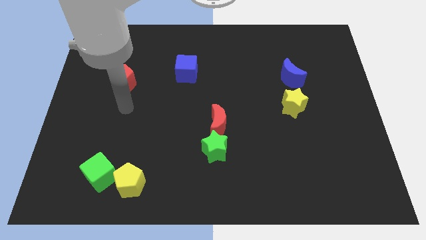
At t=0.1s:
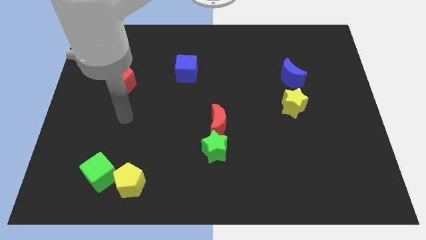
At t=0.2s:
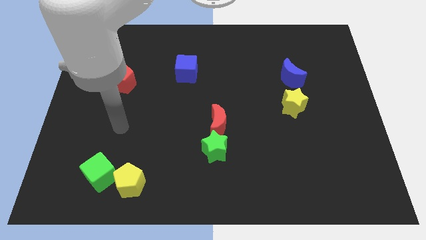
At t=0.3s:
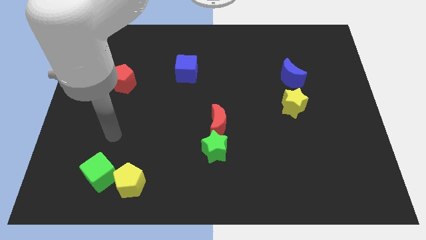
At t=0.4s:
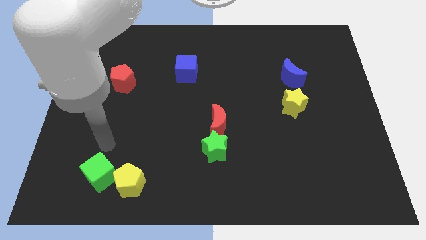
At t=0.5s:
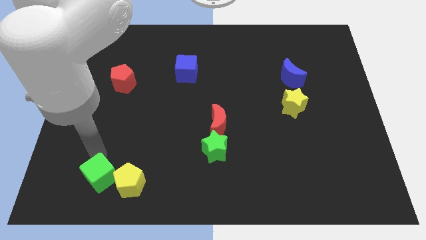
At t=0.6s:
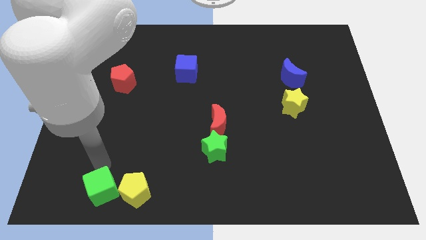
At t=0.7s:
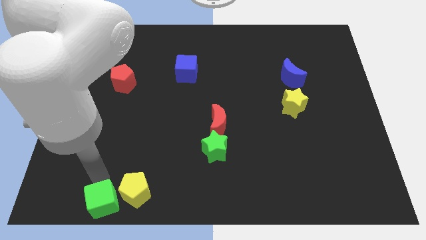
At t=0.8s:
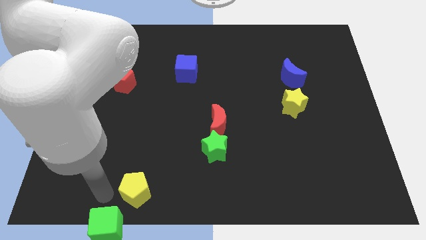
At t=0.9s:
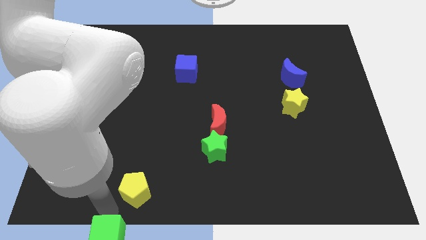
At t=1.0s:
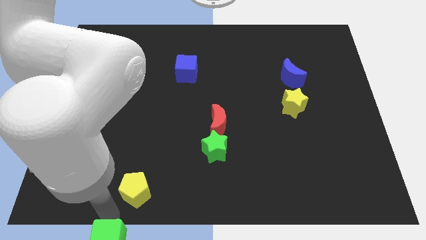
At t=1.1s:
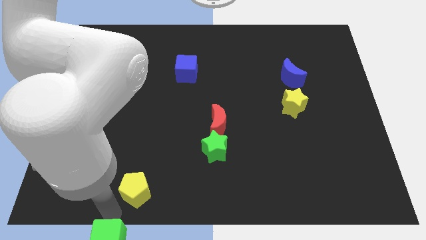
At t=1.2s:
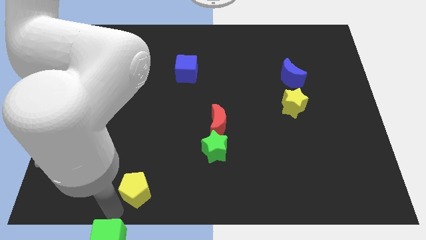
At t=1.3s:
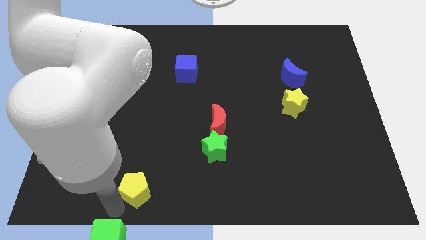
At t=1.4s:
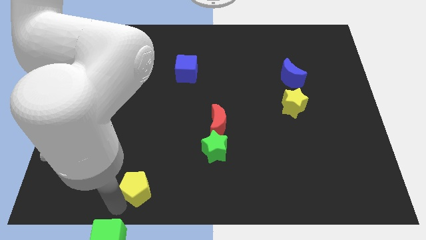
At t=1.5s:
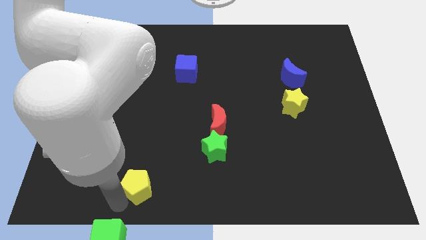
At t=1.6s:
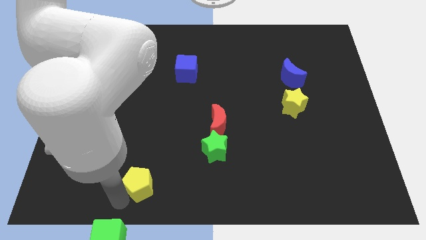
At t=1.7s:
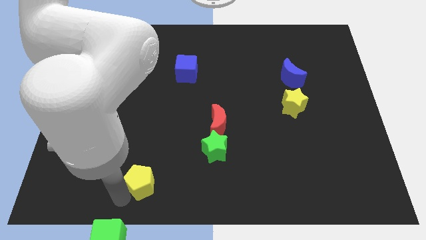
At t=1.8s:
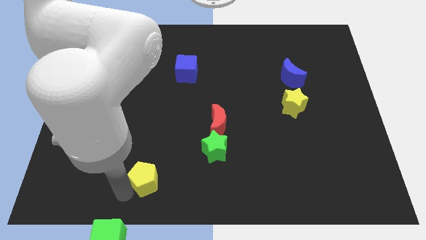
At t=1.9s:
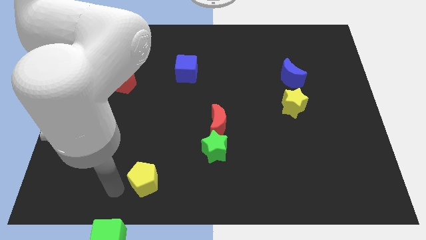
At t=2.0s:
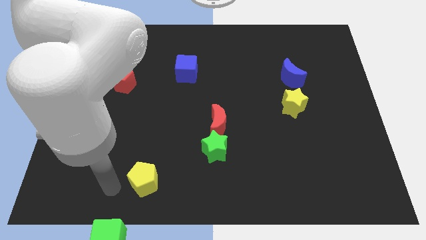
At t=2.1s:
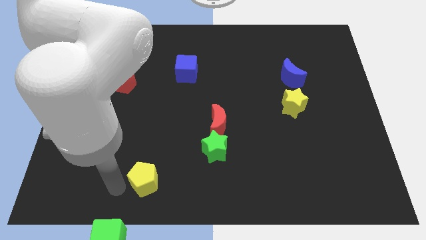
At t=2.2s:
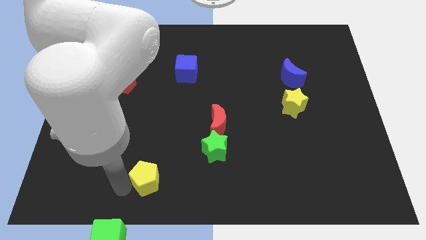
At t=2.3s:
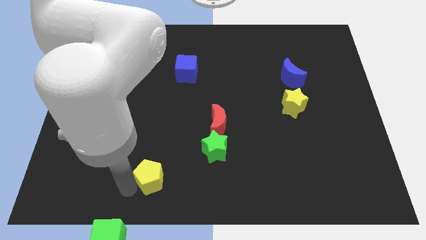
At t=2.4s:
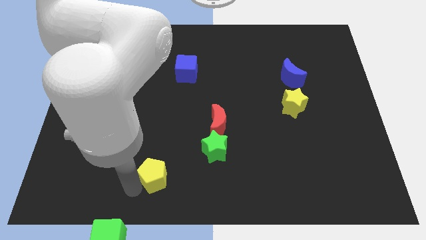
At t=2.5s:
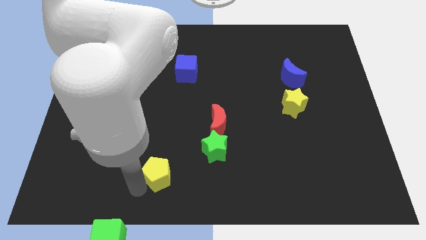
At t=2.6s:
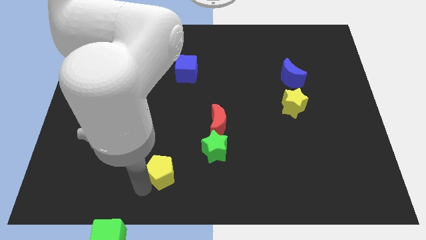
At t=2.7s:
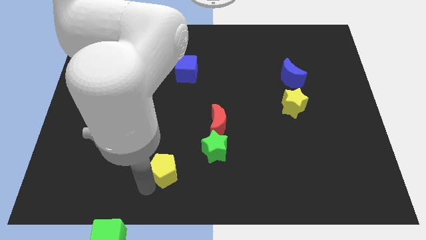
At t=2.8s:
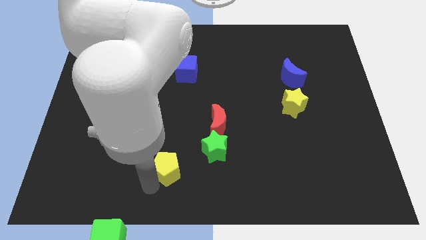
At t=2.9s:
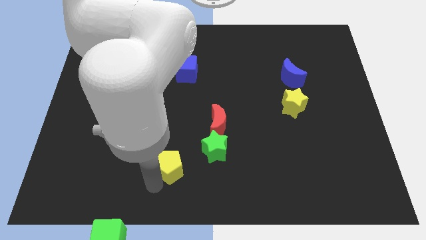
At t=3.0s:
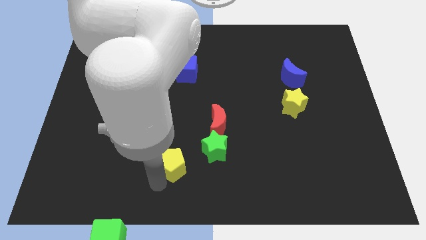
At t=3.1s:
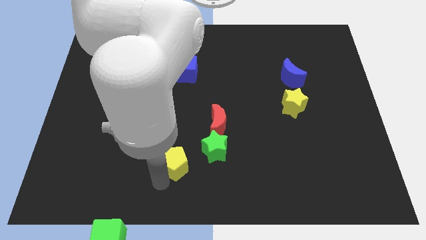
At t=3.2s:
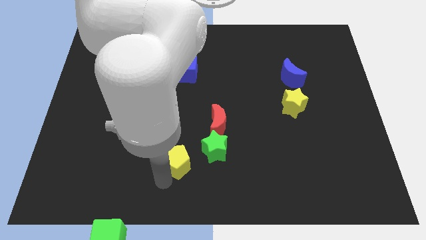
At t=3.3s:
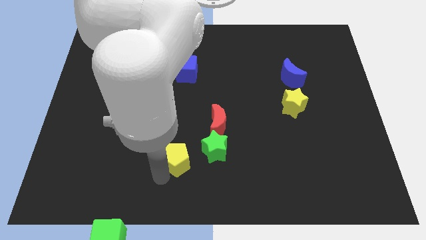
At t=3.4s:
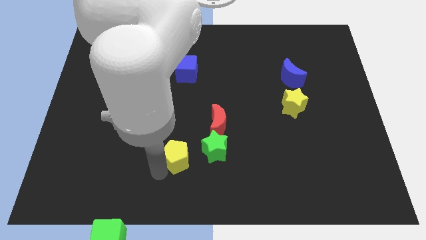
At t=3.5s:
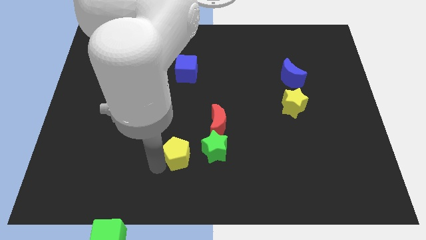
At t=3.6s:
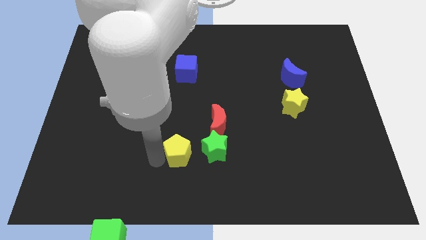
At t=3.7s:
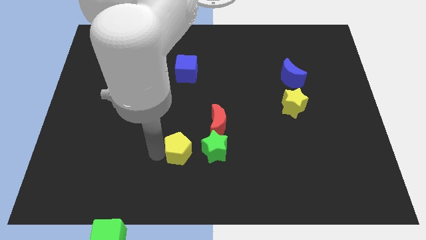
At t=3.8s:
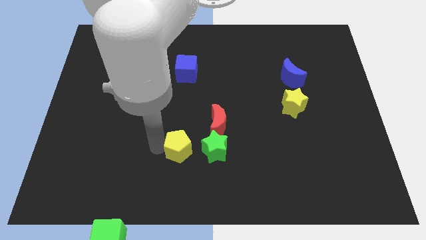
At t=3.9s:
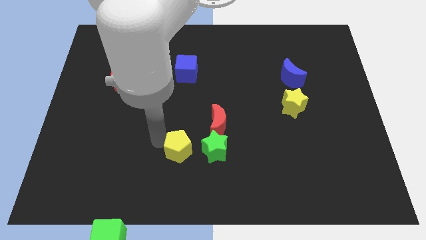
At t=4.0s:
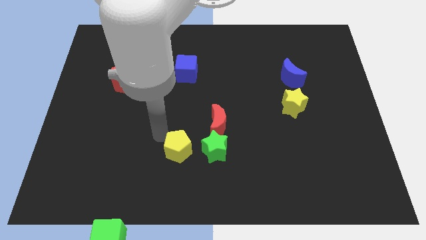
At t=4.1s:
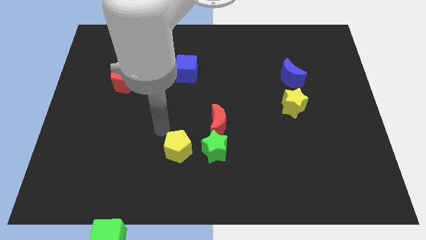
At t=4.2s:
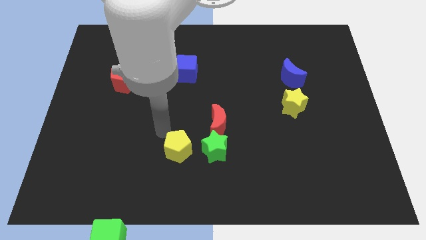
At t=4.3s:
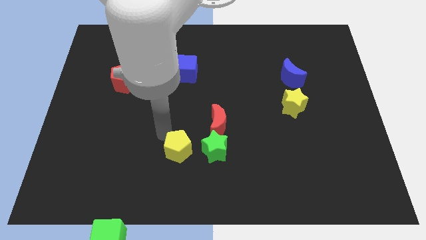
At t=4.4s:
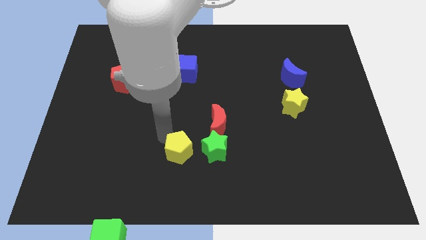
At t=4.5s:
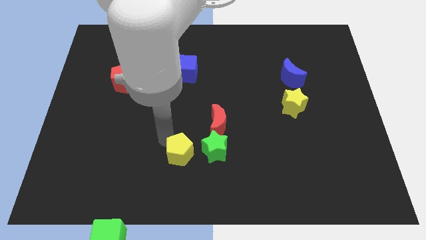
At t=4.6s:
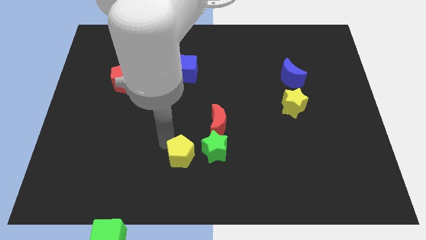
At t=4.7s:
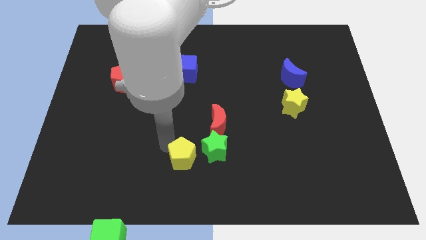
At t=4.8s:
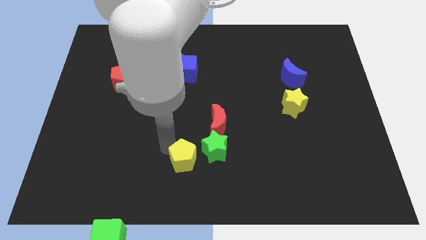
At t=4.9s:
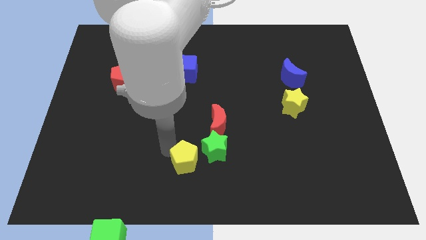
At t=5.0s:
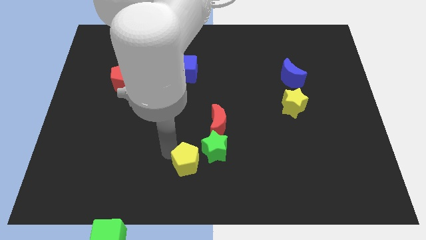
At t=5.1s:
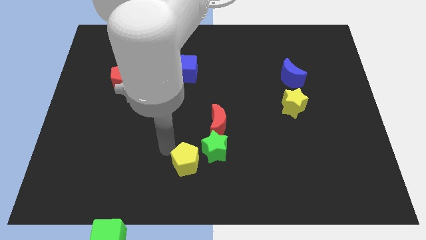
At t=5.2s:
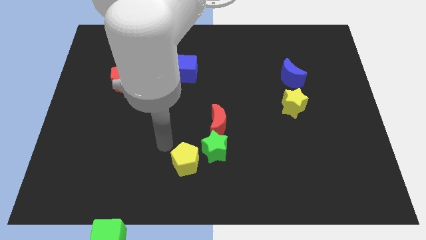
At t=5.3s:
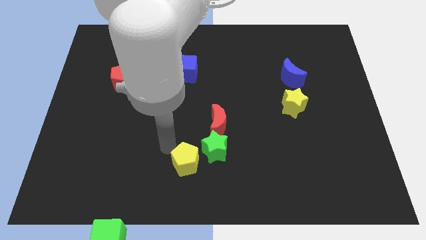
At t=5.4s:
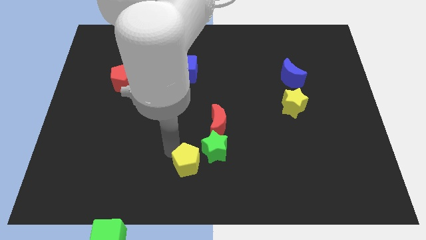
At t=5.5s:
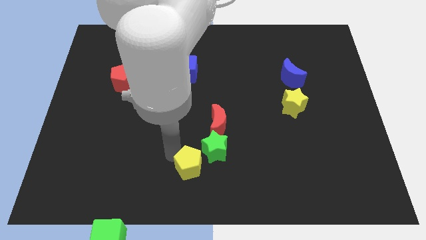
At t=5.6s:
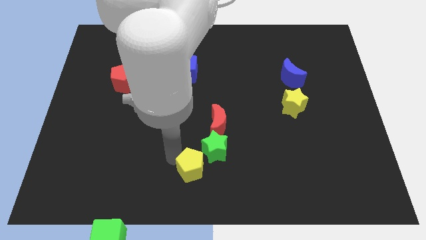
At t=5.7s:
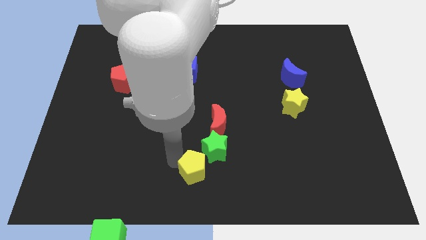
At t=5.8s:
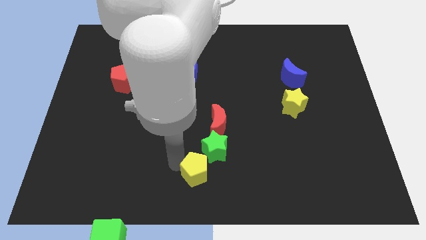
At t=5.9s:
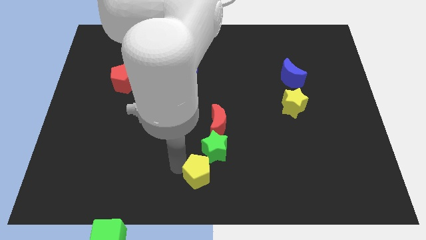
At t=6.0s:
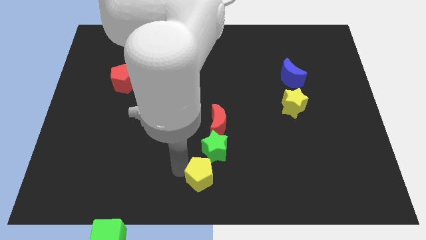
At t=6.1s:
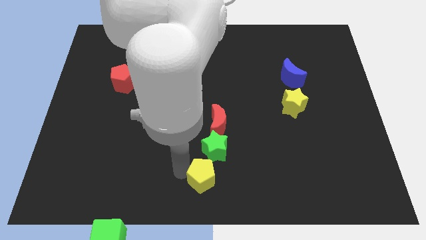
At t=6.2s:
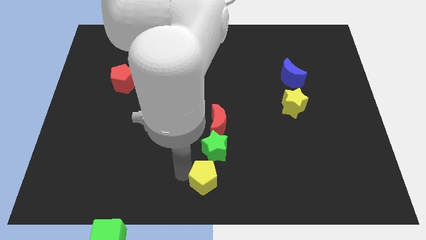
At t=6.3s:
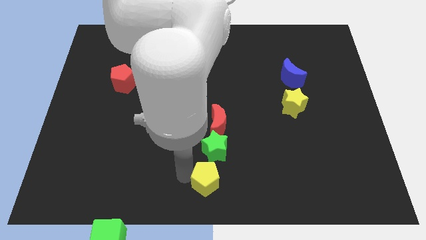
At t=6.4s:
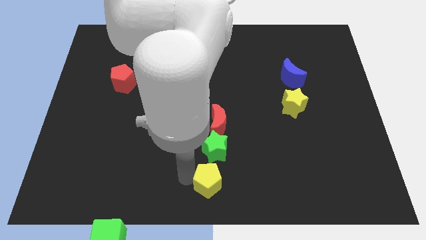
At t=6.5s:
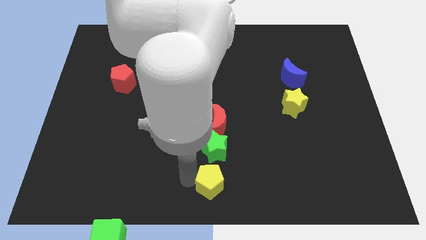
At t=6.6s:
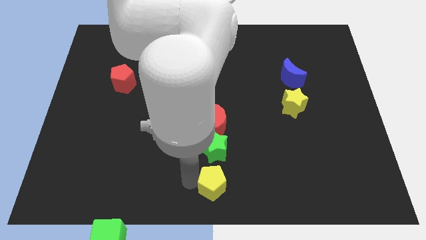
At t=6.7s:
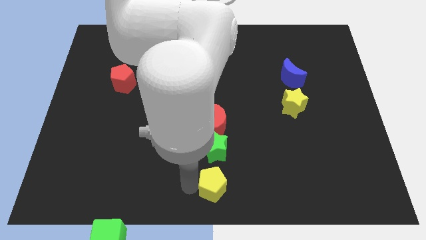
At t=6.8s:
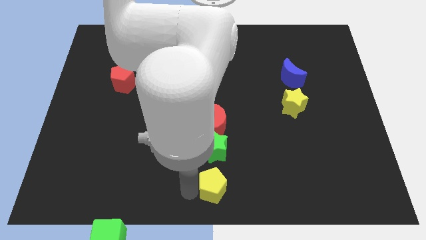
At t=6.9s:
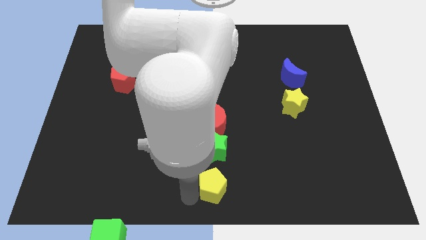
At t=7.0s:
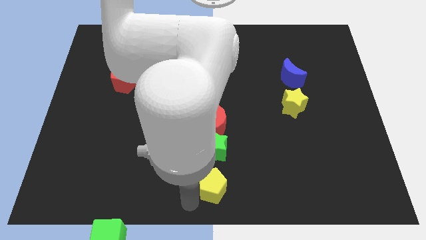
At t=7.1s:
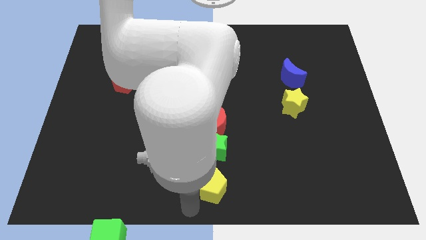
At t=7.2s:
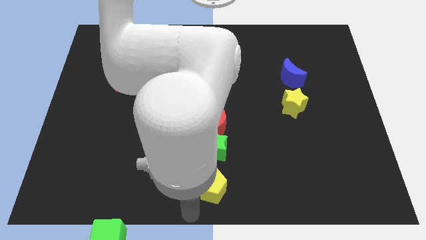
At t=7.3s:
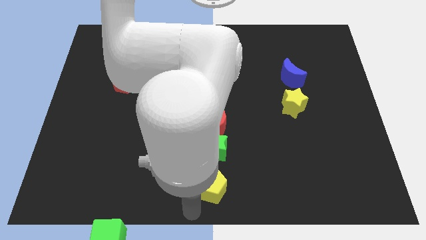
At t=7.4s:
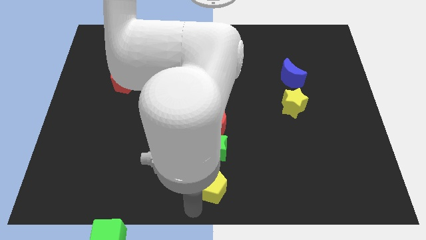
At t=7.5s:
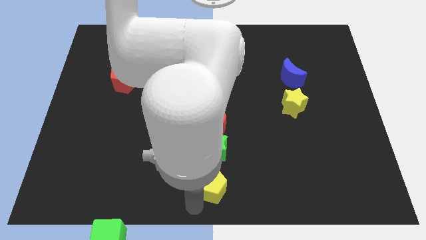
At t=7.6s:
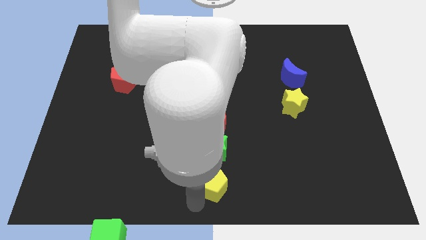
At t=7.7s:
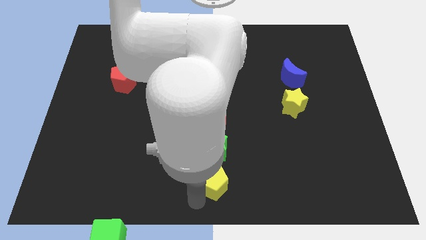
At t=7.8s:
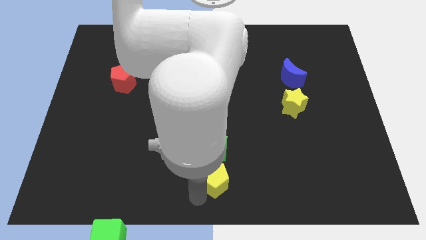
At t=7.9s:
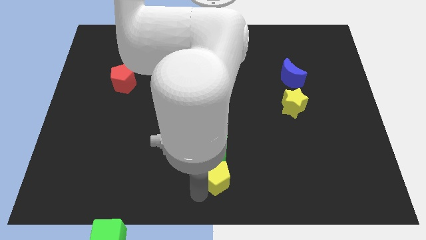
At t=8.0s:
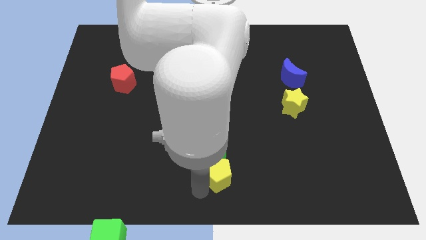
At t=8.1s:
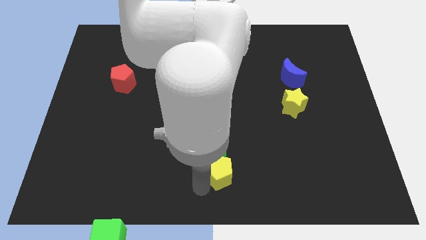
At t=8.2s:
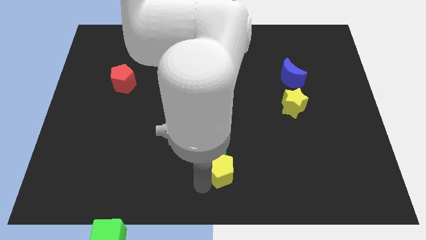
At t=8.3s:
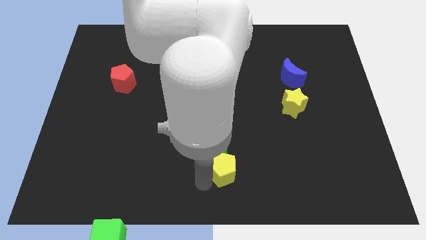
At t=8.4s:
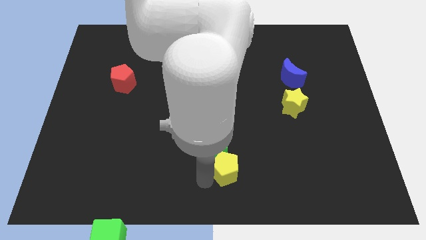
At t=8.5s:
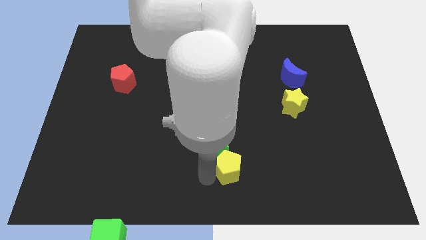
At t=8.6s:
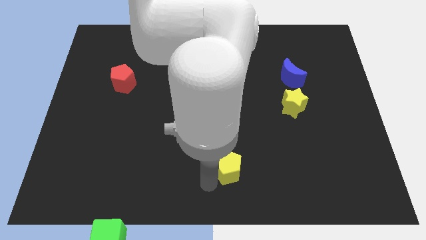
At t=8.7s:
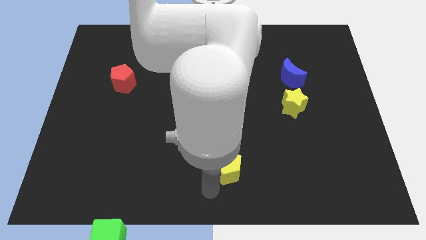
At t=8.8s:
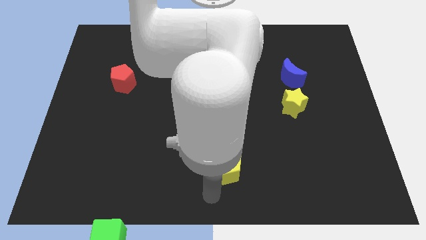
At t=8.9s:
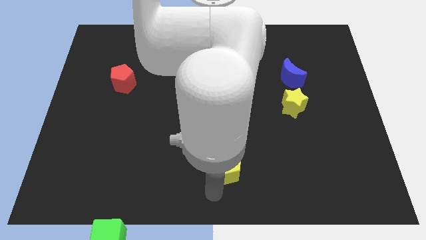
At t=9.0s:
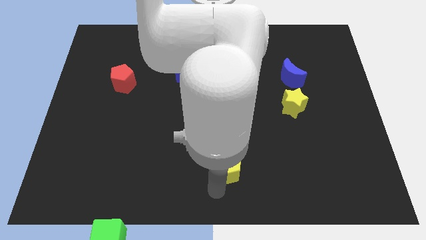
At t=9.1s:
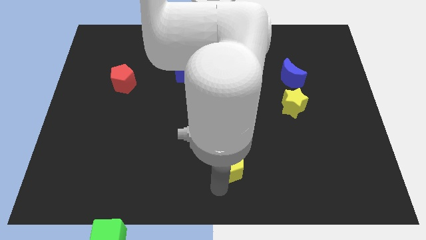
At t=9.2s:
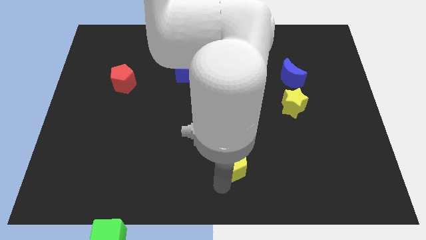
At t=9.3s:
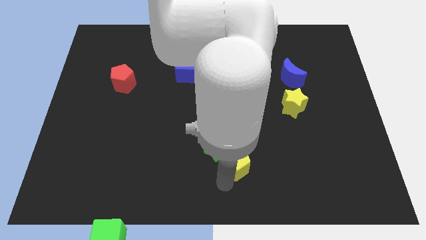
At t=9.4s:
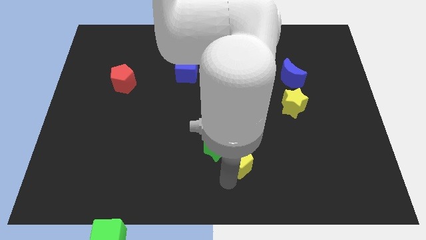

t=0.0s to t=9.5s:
push the yellow pentagon to the bottom right of the red moon
